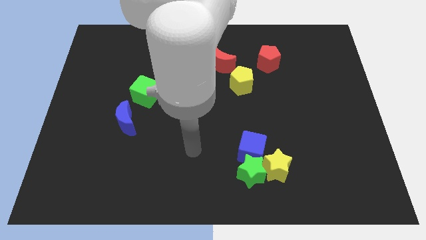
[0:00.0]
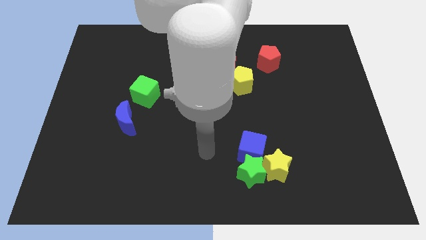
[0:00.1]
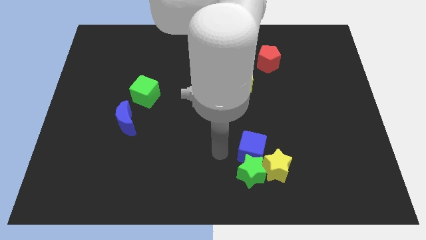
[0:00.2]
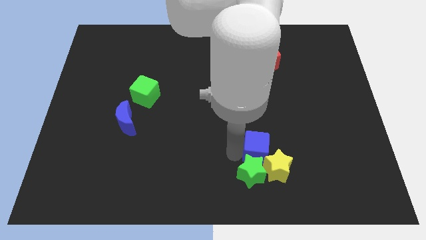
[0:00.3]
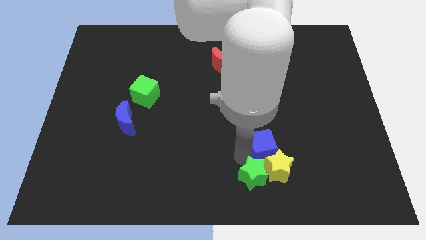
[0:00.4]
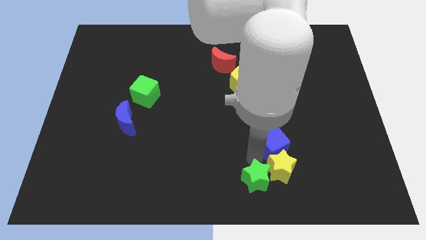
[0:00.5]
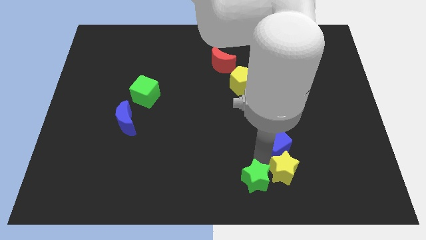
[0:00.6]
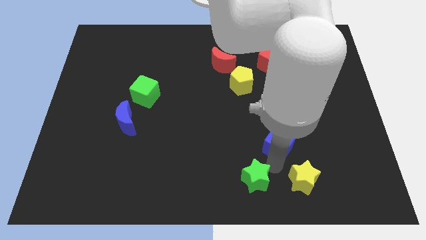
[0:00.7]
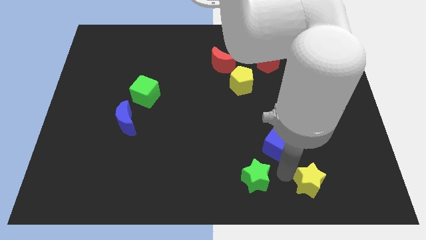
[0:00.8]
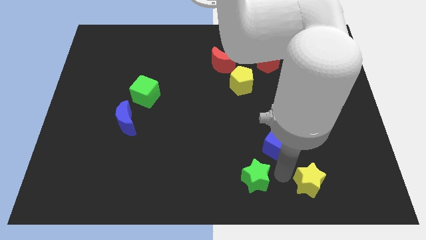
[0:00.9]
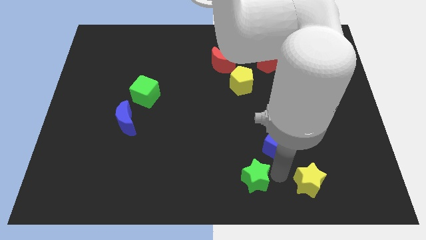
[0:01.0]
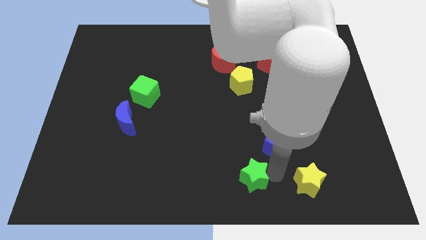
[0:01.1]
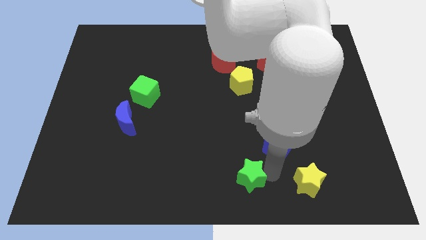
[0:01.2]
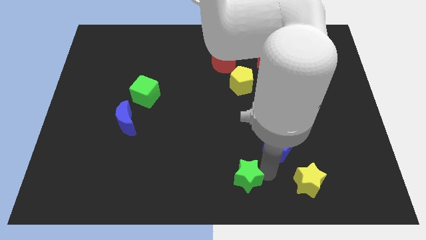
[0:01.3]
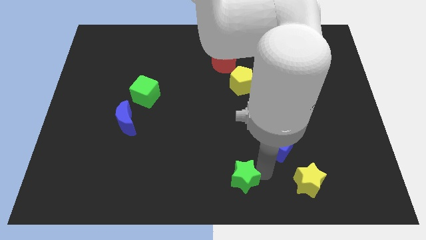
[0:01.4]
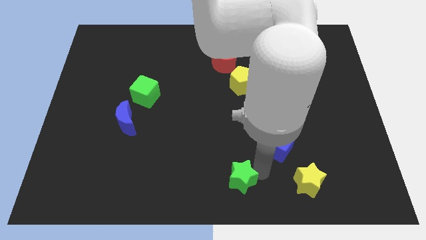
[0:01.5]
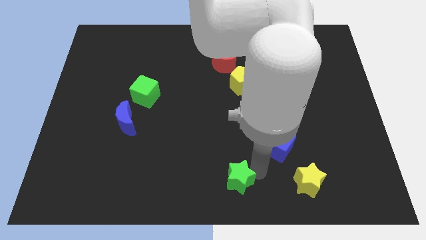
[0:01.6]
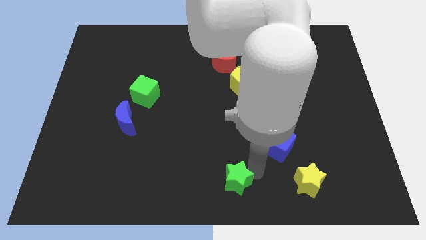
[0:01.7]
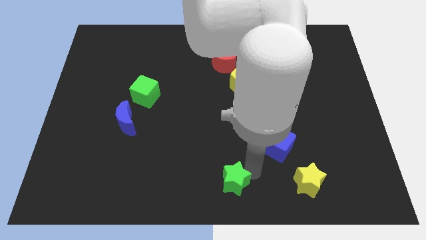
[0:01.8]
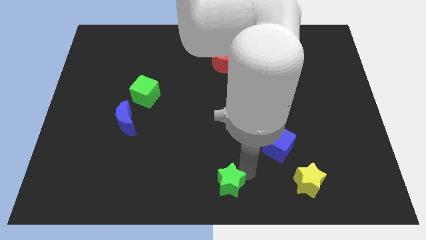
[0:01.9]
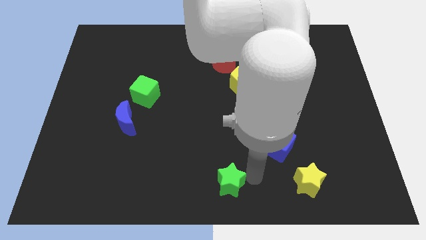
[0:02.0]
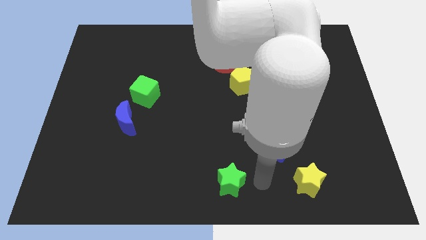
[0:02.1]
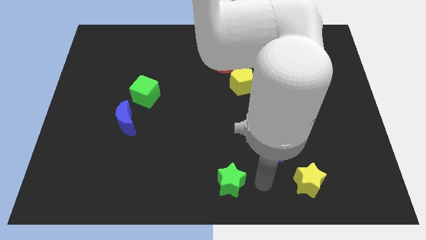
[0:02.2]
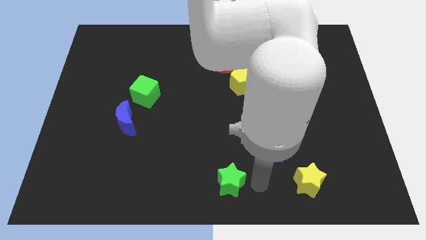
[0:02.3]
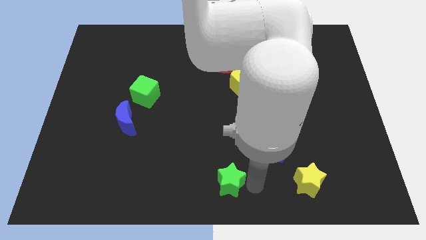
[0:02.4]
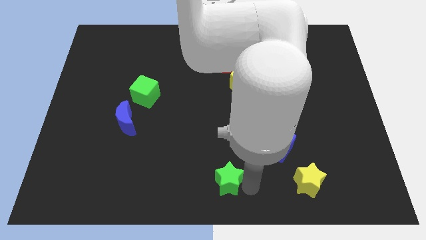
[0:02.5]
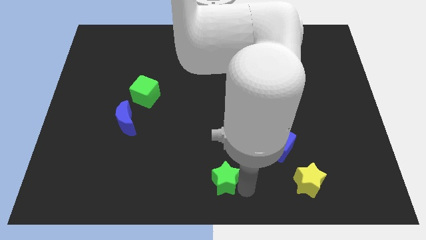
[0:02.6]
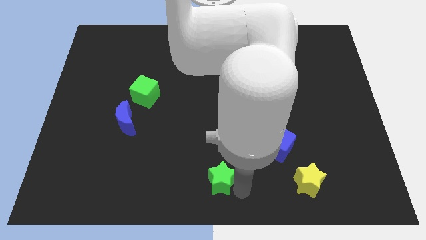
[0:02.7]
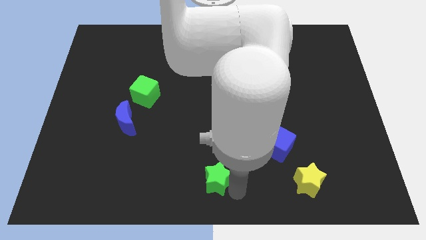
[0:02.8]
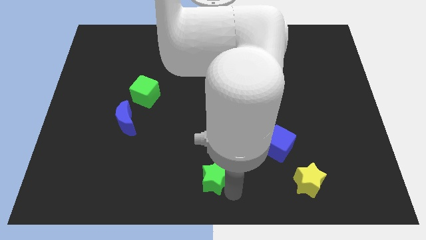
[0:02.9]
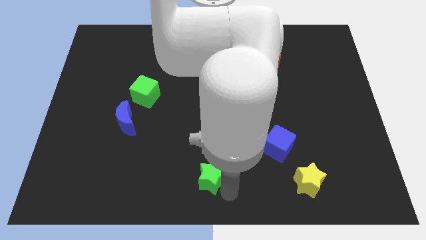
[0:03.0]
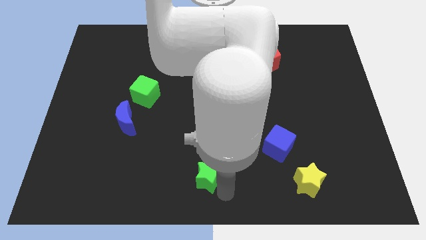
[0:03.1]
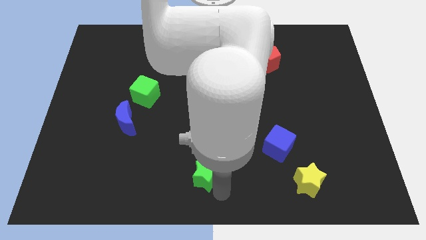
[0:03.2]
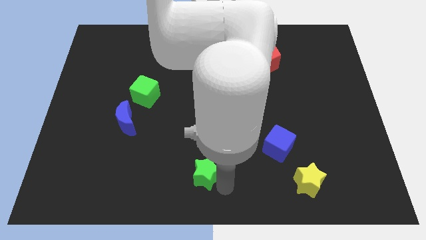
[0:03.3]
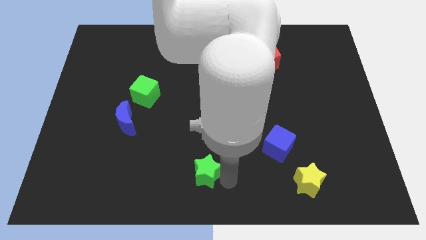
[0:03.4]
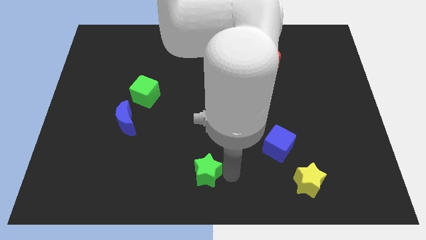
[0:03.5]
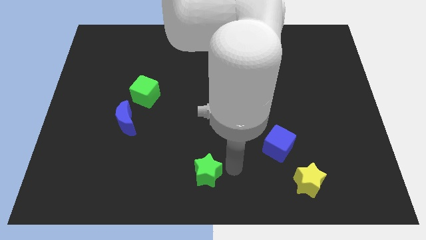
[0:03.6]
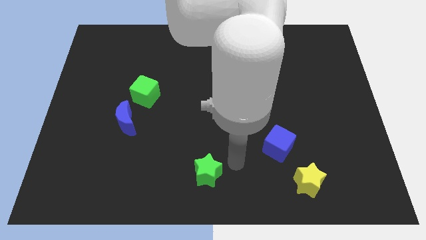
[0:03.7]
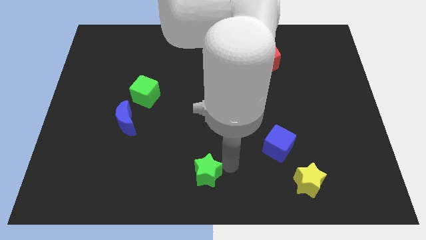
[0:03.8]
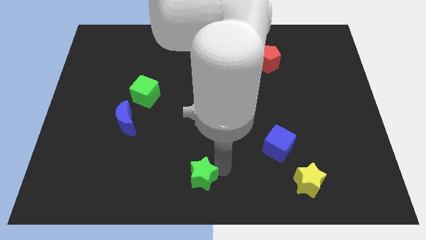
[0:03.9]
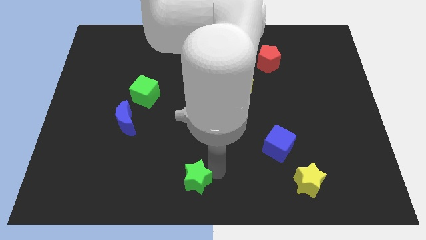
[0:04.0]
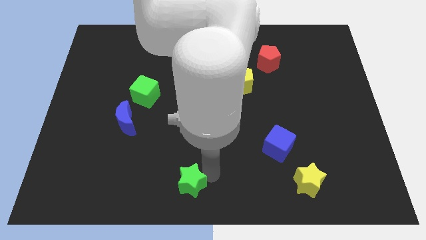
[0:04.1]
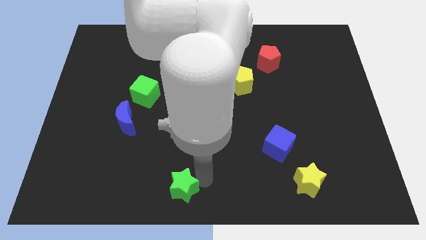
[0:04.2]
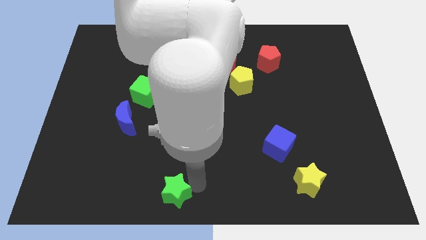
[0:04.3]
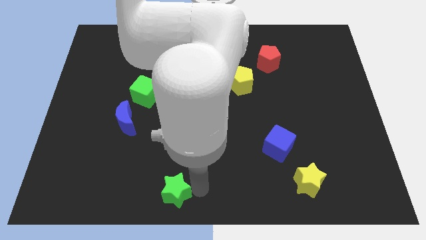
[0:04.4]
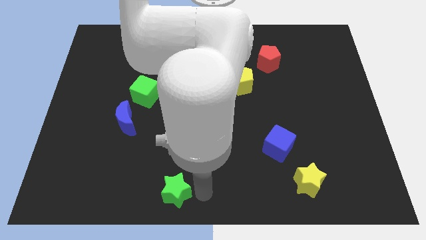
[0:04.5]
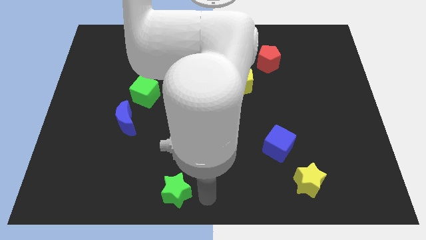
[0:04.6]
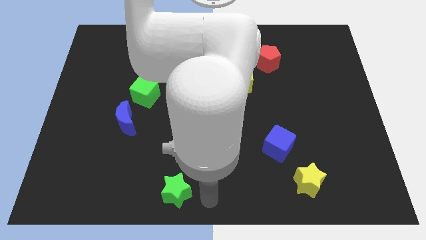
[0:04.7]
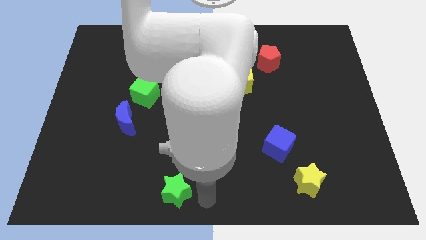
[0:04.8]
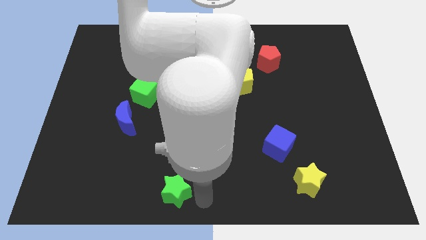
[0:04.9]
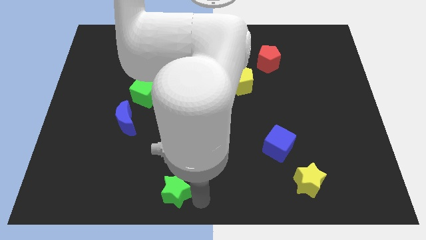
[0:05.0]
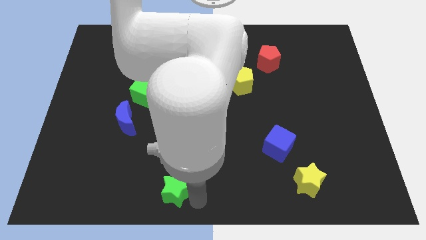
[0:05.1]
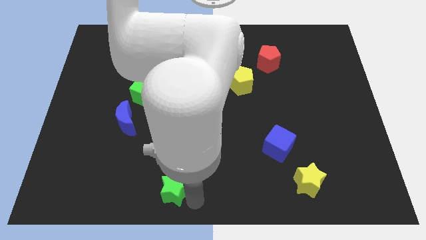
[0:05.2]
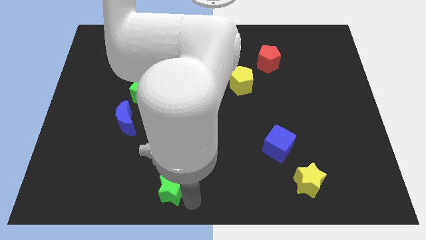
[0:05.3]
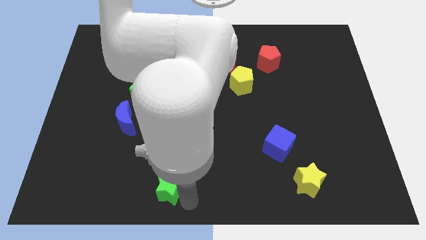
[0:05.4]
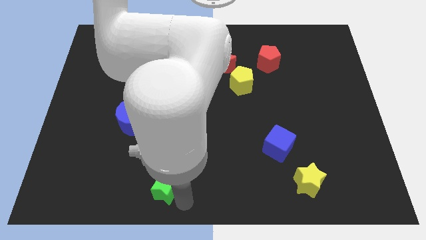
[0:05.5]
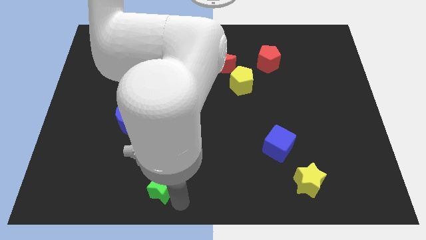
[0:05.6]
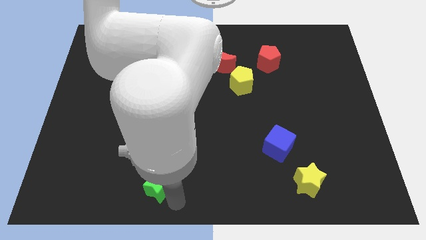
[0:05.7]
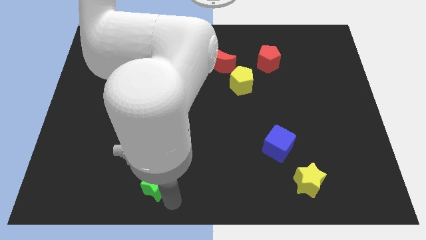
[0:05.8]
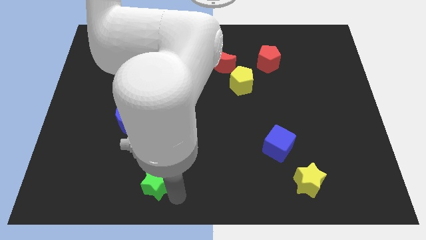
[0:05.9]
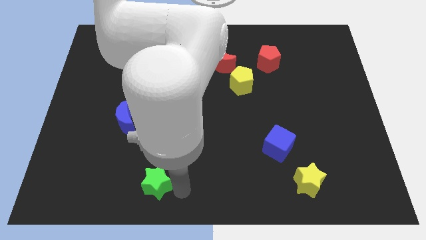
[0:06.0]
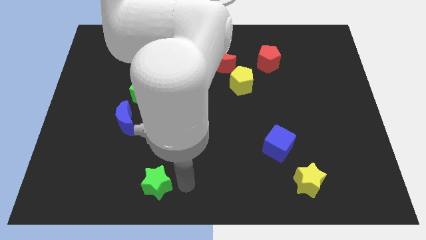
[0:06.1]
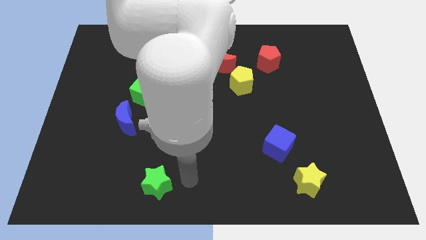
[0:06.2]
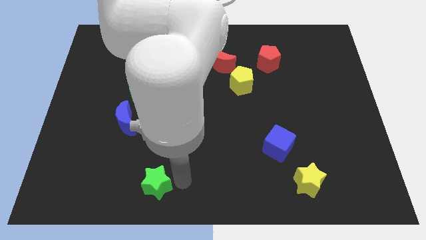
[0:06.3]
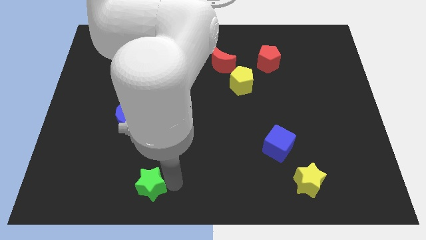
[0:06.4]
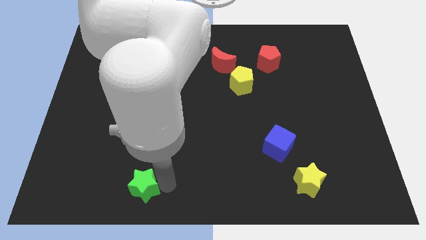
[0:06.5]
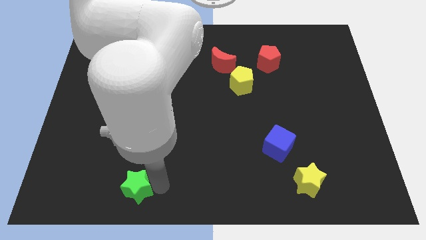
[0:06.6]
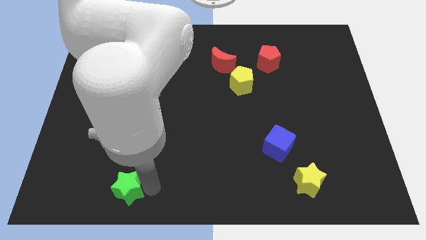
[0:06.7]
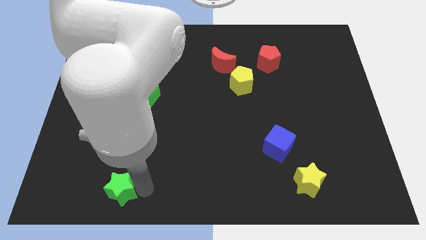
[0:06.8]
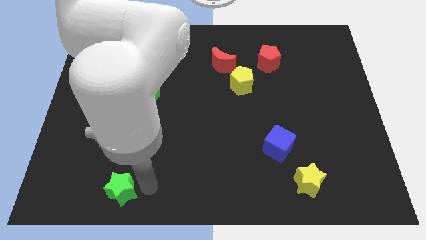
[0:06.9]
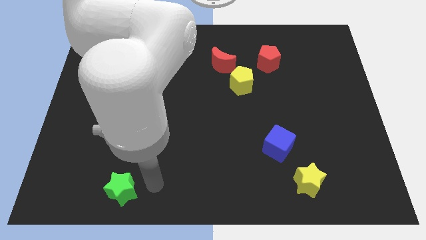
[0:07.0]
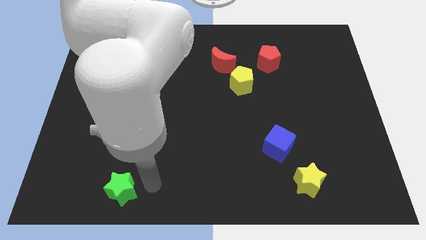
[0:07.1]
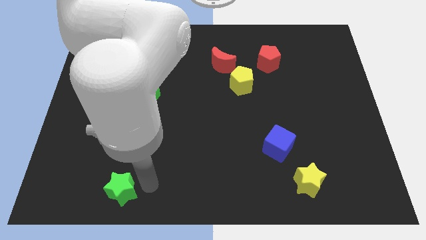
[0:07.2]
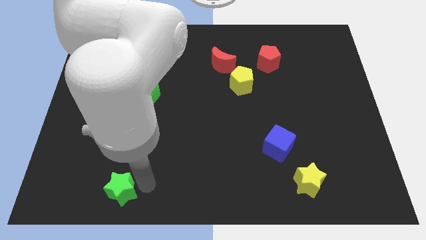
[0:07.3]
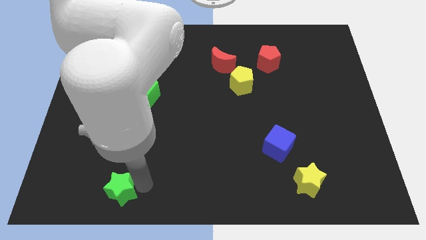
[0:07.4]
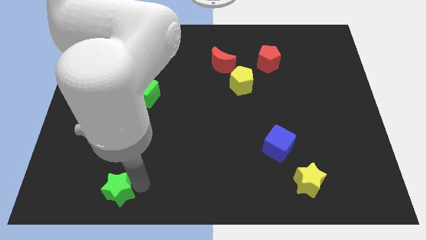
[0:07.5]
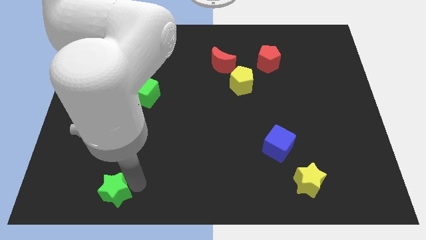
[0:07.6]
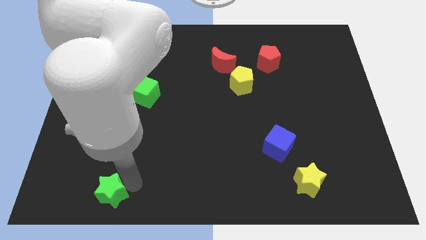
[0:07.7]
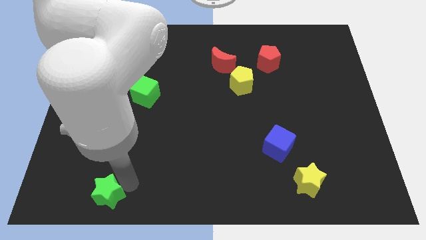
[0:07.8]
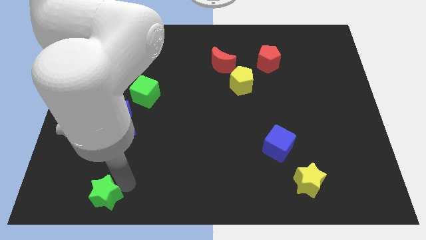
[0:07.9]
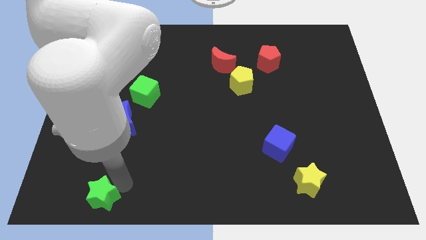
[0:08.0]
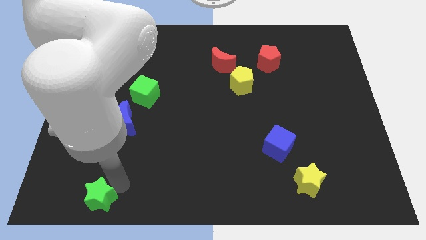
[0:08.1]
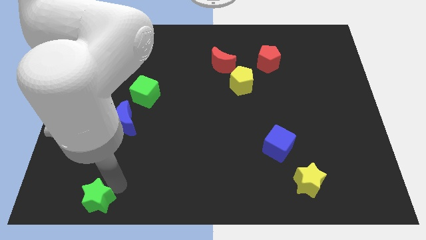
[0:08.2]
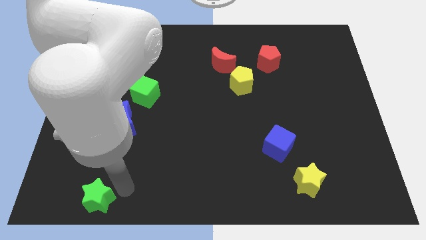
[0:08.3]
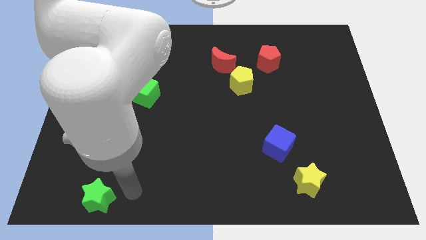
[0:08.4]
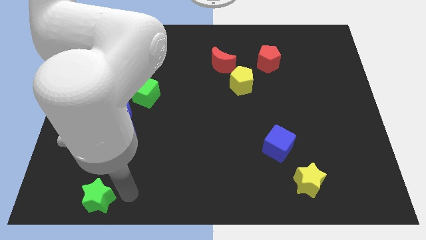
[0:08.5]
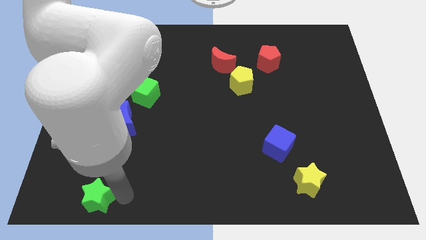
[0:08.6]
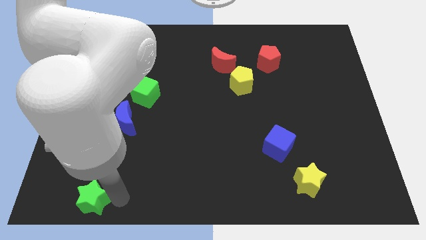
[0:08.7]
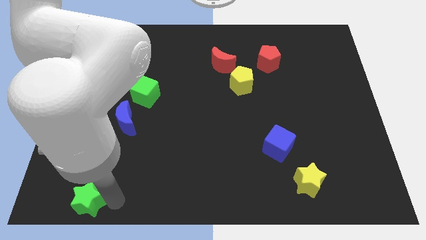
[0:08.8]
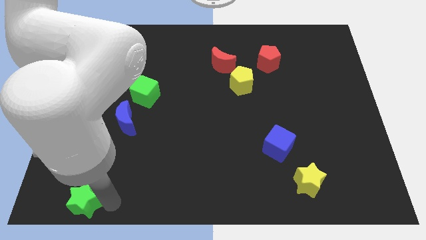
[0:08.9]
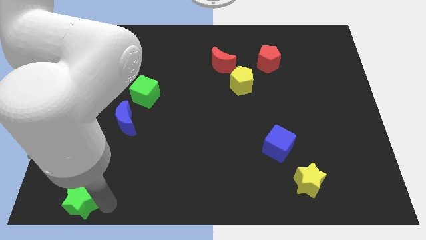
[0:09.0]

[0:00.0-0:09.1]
push the green star to the bottom left of the board
